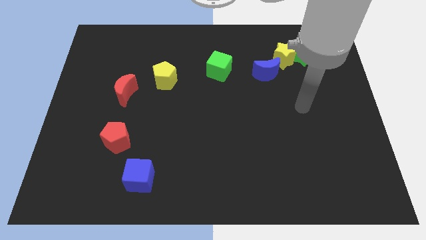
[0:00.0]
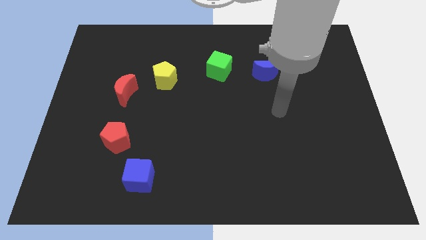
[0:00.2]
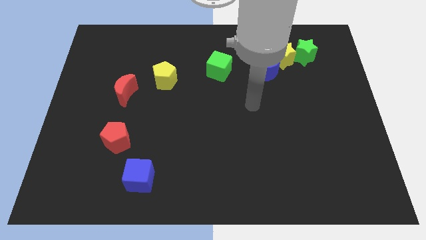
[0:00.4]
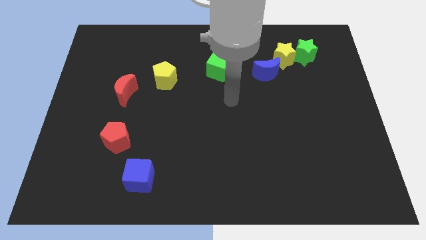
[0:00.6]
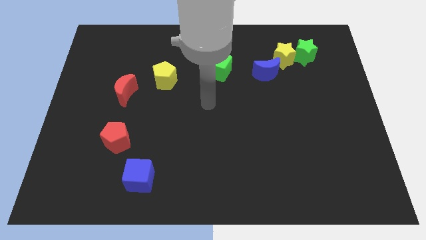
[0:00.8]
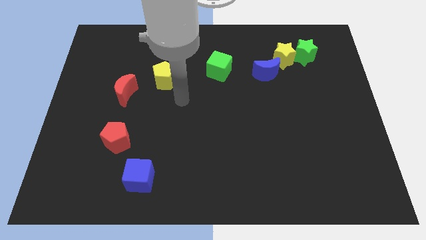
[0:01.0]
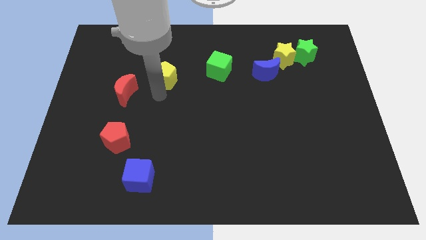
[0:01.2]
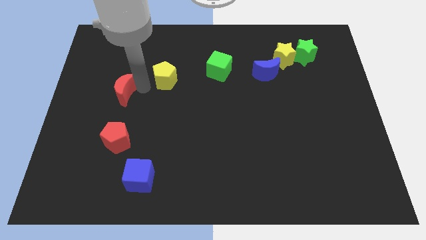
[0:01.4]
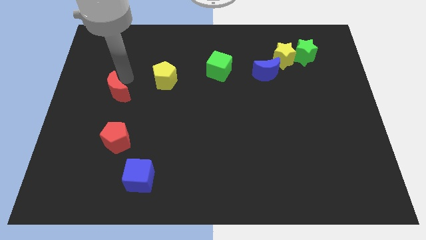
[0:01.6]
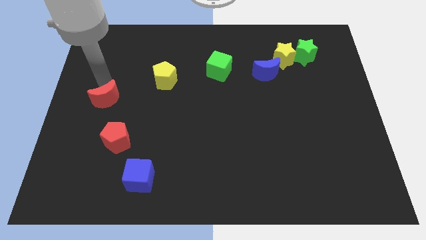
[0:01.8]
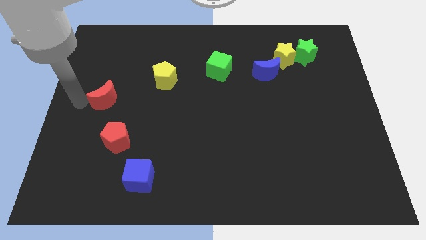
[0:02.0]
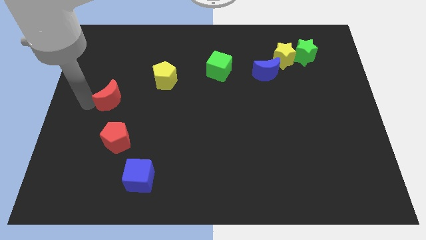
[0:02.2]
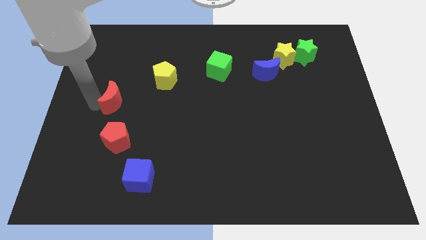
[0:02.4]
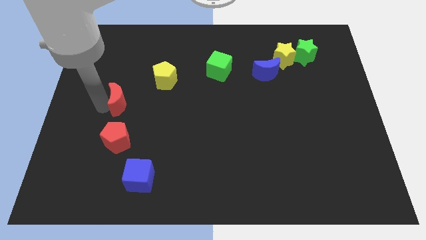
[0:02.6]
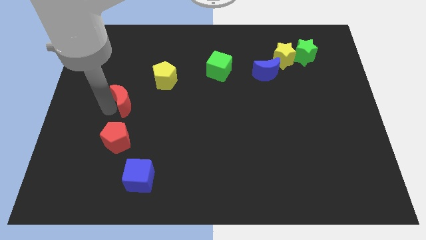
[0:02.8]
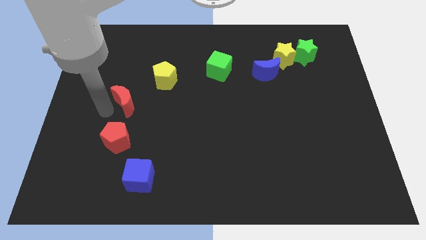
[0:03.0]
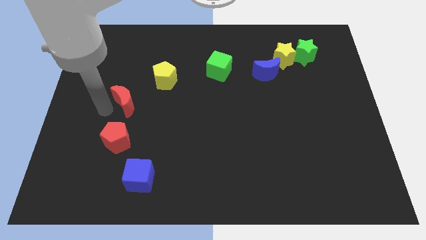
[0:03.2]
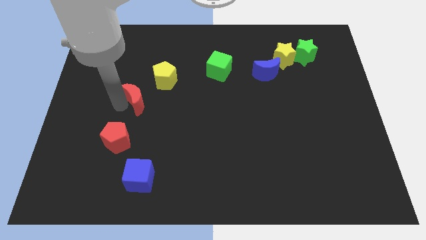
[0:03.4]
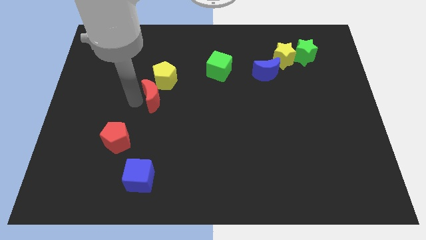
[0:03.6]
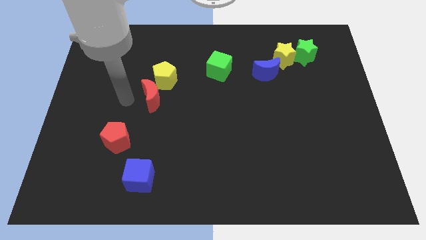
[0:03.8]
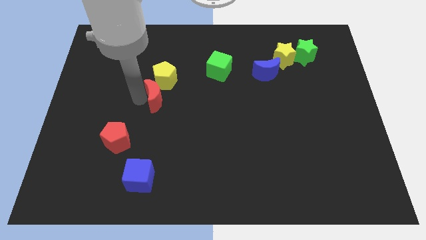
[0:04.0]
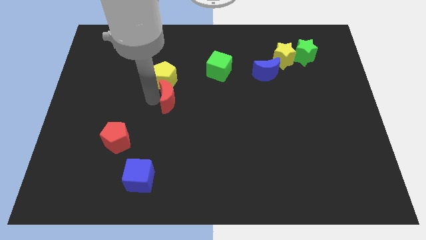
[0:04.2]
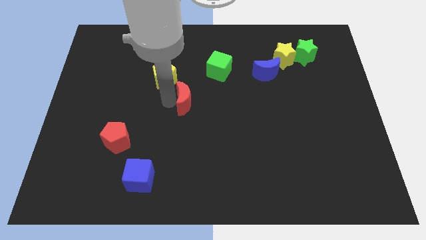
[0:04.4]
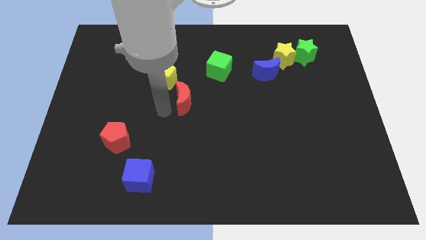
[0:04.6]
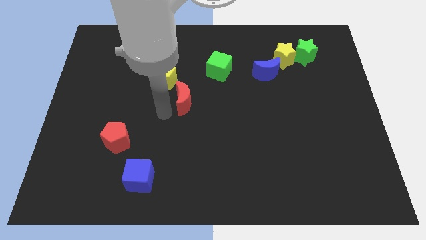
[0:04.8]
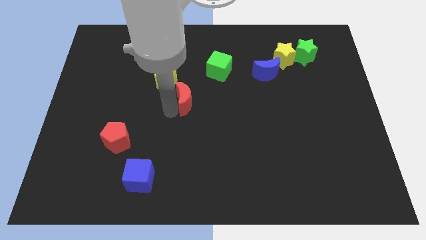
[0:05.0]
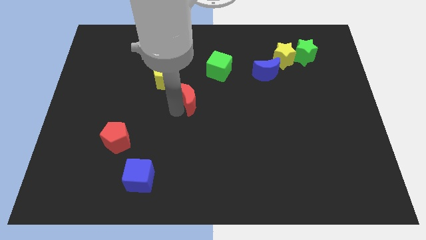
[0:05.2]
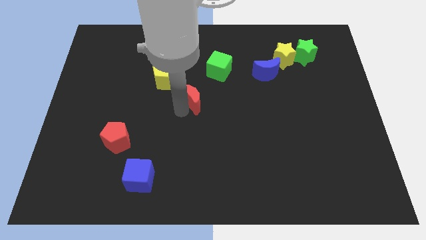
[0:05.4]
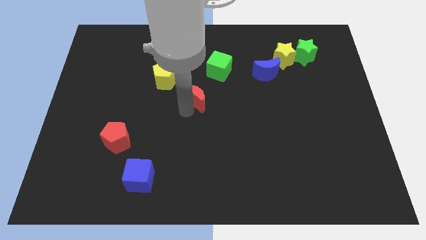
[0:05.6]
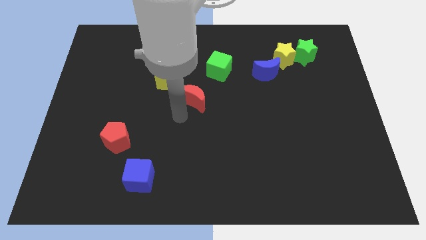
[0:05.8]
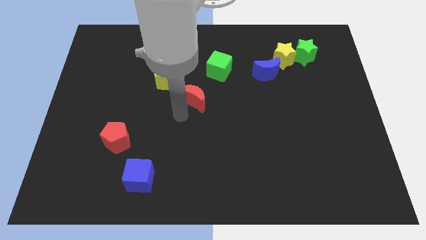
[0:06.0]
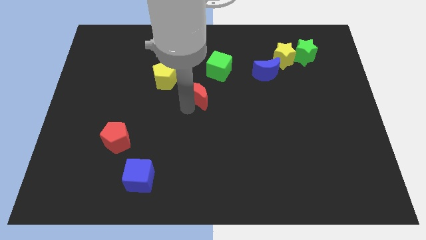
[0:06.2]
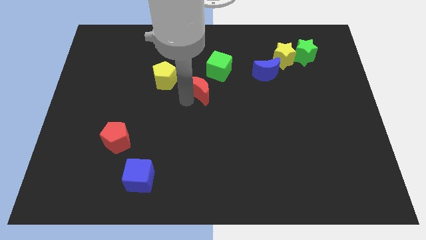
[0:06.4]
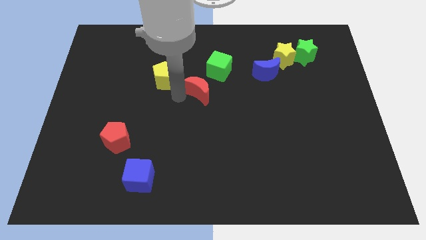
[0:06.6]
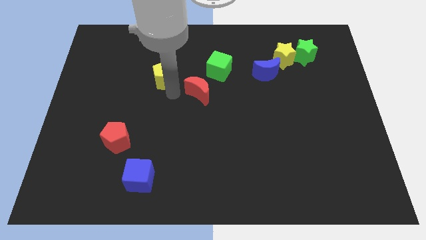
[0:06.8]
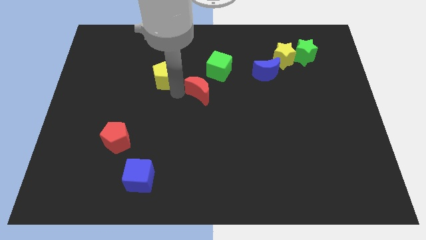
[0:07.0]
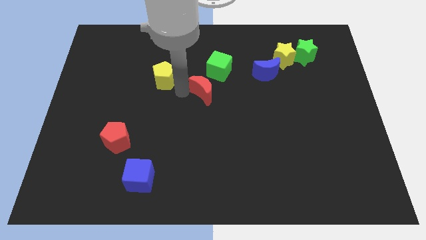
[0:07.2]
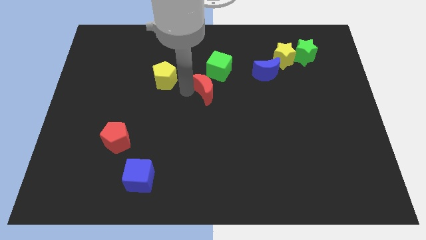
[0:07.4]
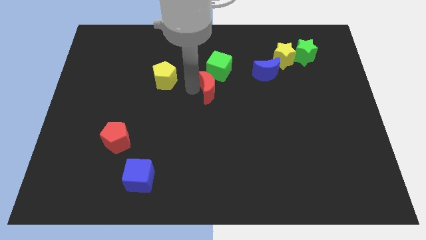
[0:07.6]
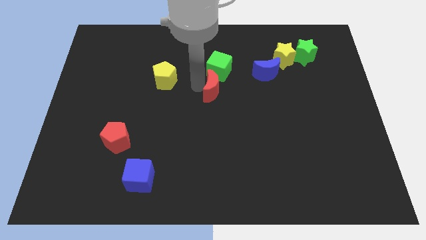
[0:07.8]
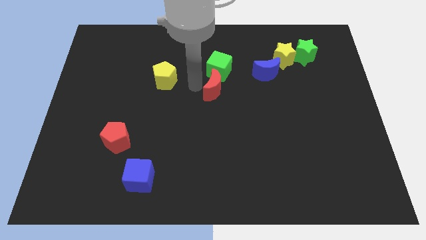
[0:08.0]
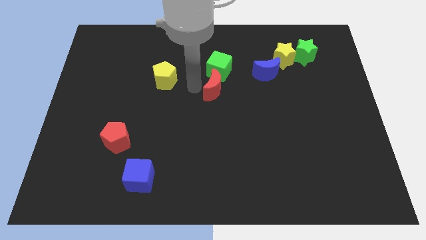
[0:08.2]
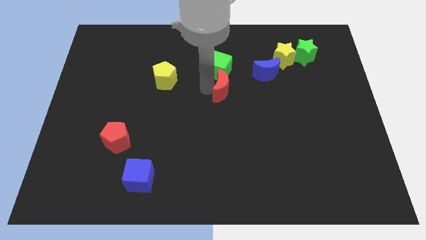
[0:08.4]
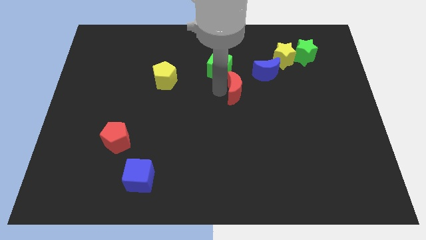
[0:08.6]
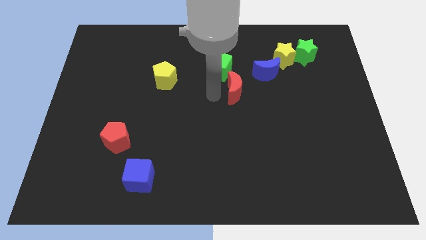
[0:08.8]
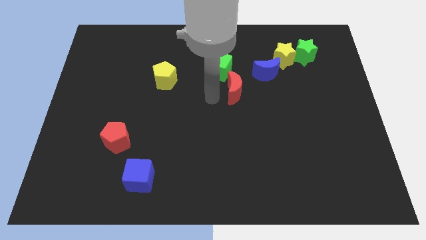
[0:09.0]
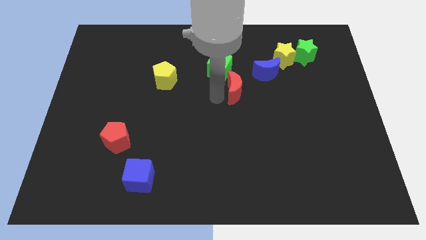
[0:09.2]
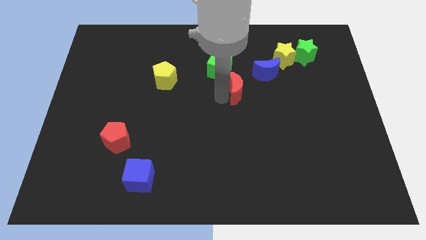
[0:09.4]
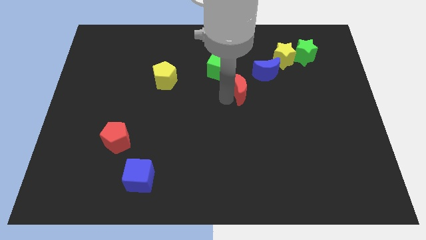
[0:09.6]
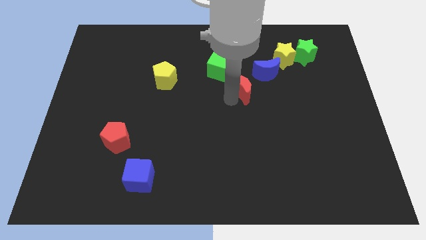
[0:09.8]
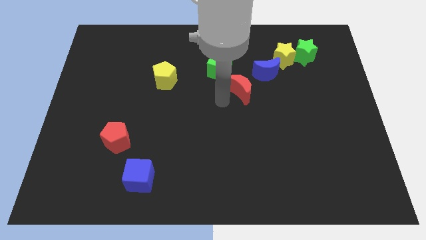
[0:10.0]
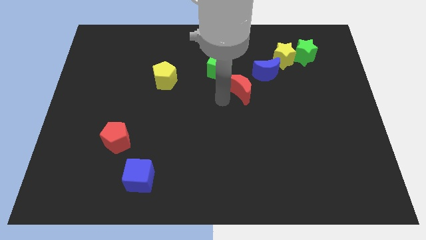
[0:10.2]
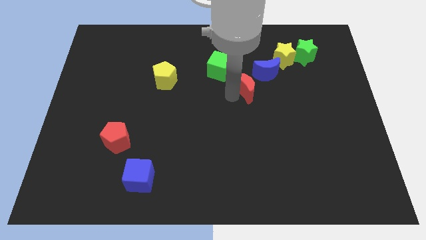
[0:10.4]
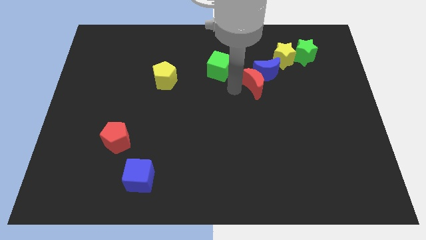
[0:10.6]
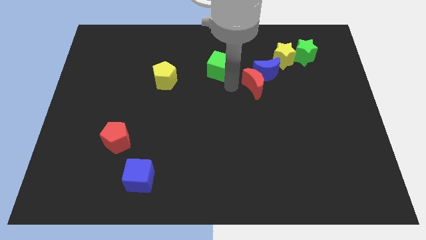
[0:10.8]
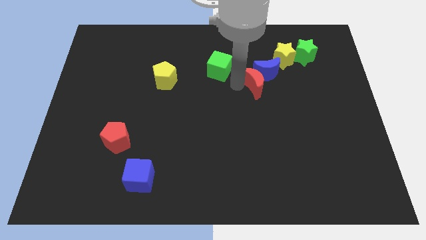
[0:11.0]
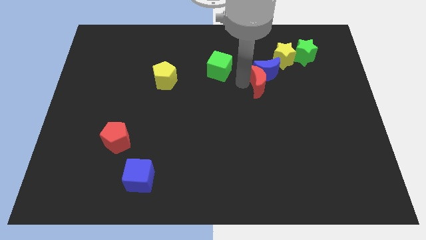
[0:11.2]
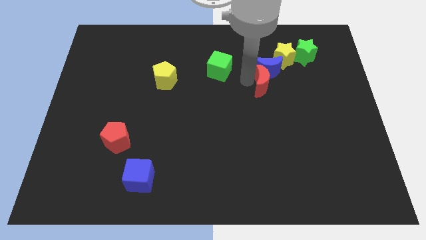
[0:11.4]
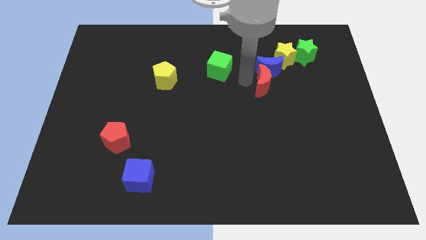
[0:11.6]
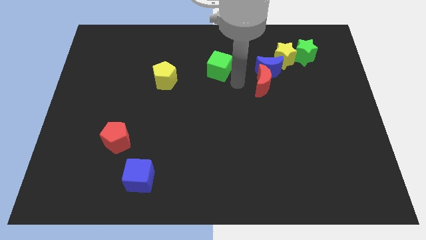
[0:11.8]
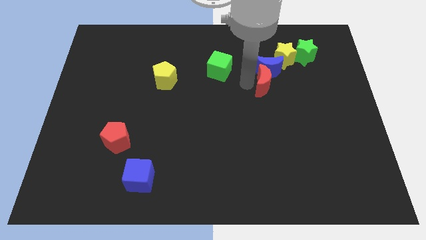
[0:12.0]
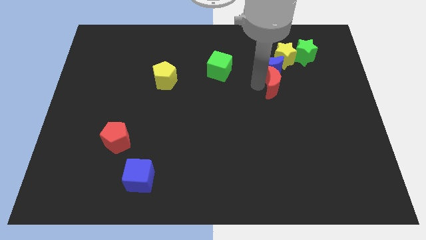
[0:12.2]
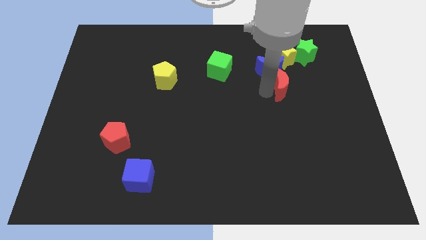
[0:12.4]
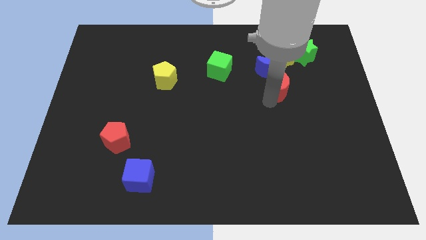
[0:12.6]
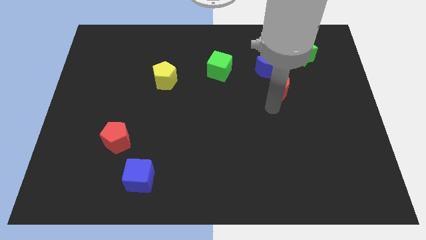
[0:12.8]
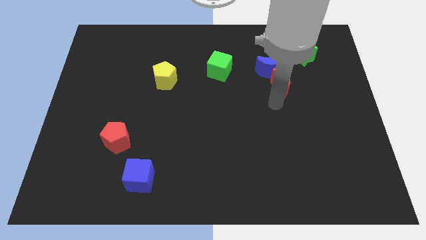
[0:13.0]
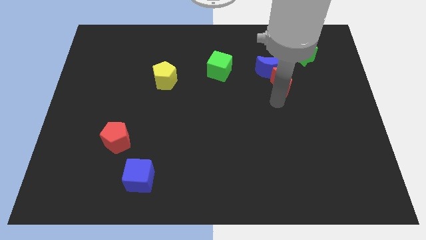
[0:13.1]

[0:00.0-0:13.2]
slide the red moon to the bottom left of the green star

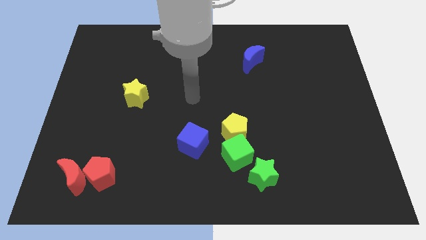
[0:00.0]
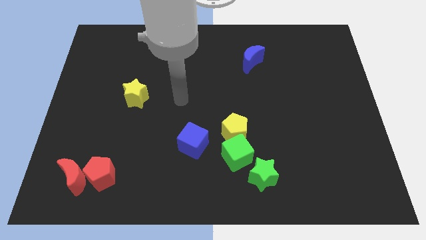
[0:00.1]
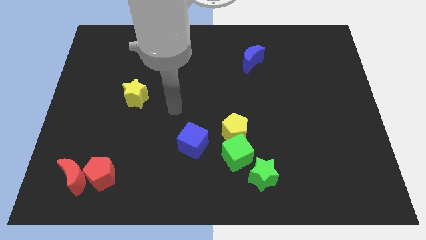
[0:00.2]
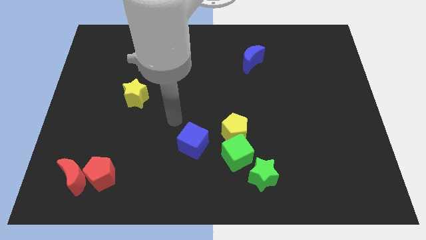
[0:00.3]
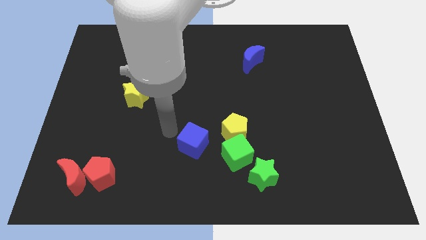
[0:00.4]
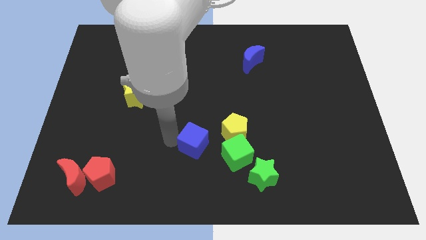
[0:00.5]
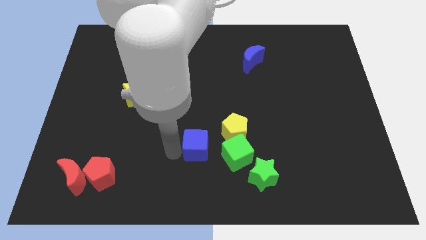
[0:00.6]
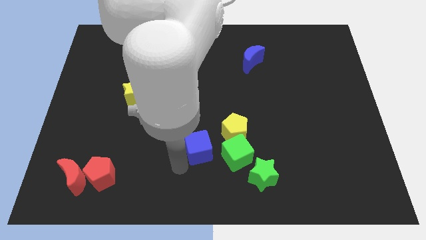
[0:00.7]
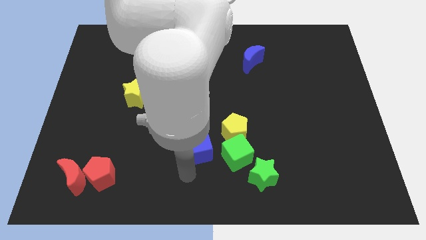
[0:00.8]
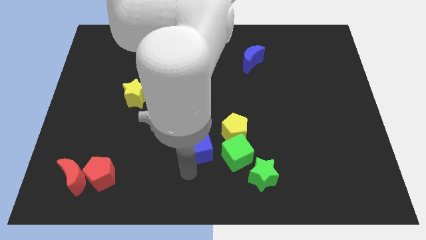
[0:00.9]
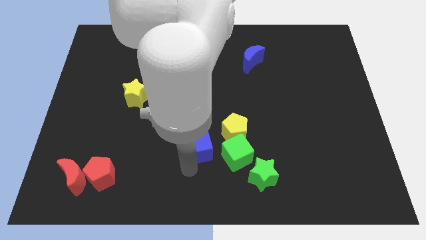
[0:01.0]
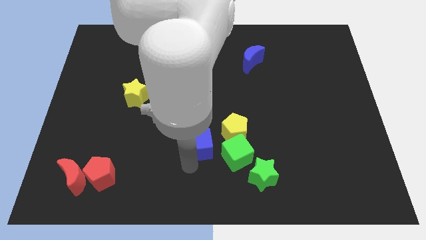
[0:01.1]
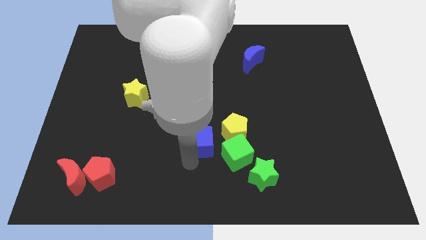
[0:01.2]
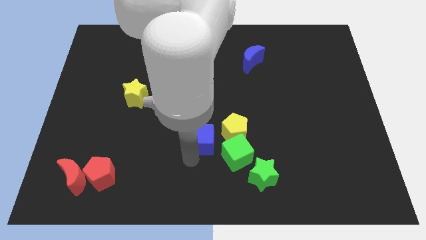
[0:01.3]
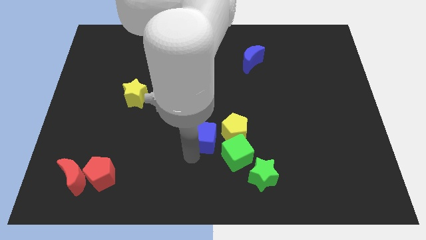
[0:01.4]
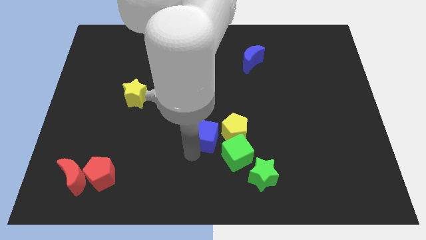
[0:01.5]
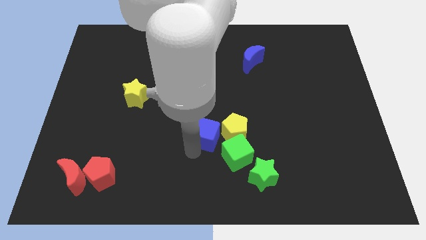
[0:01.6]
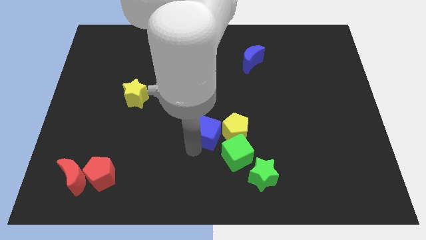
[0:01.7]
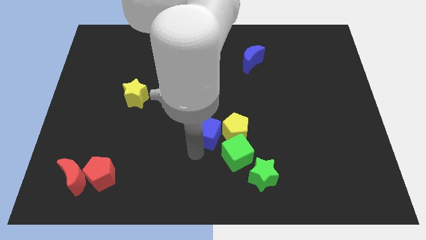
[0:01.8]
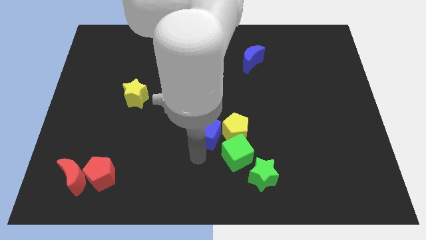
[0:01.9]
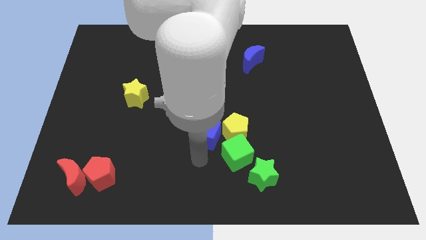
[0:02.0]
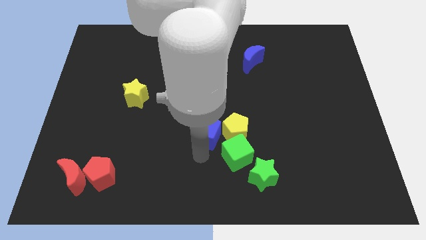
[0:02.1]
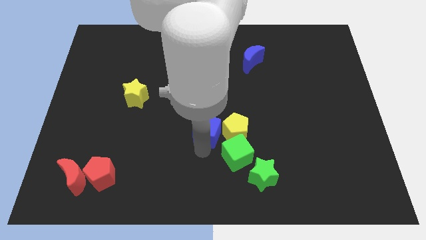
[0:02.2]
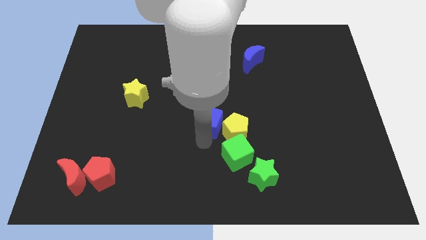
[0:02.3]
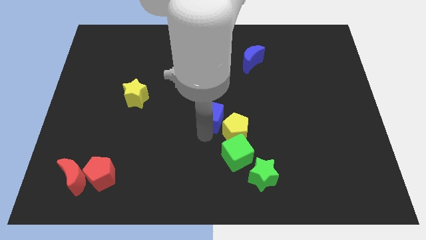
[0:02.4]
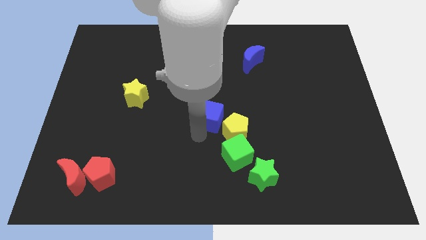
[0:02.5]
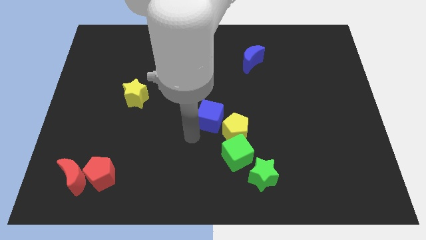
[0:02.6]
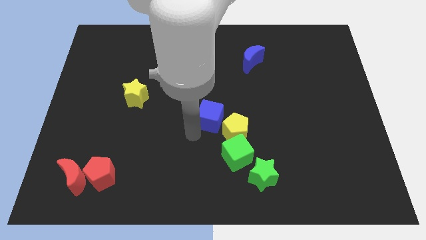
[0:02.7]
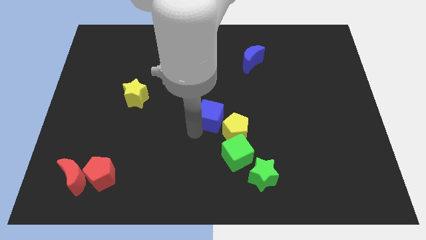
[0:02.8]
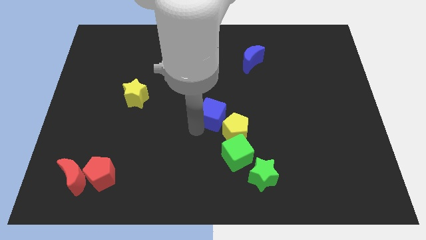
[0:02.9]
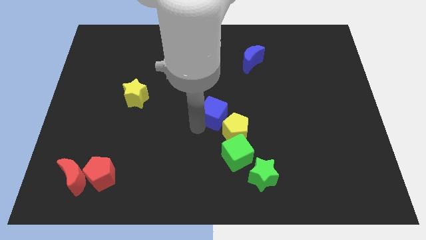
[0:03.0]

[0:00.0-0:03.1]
push the blue cube above the yellow pentagon
